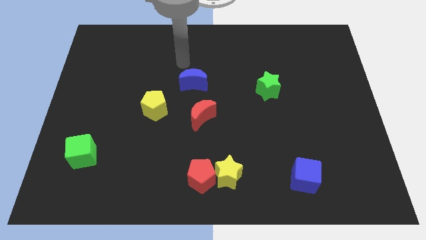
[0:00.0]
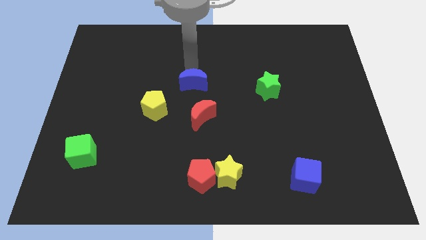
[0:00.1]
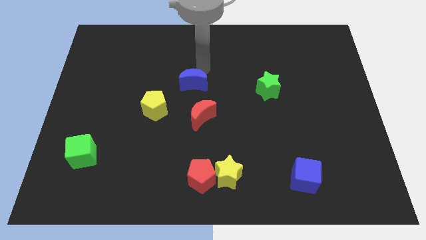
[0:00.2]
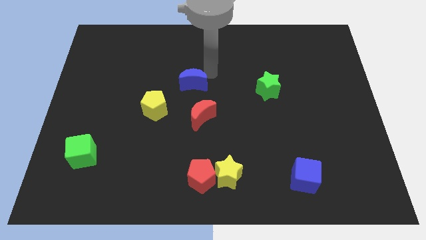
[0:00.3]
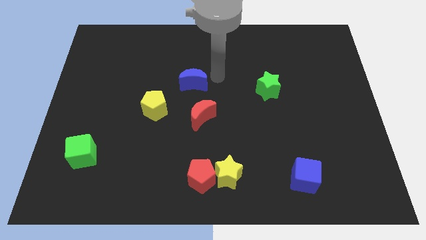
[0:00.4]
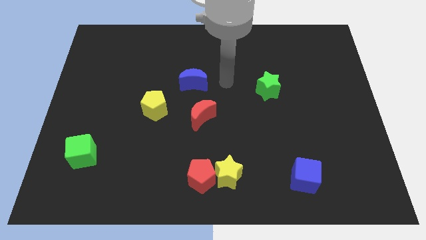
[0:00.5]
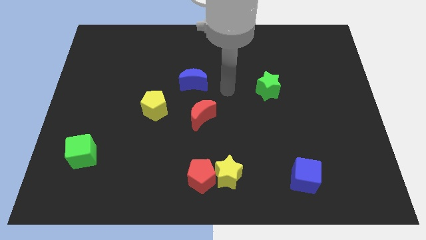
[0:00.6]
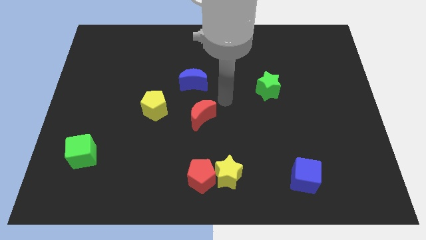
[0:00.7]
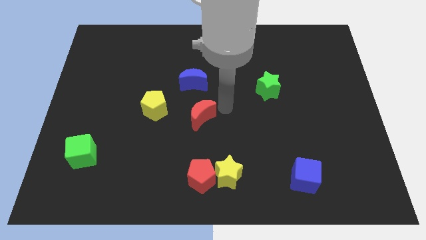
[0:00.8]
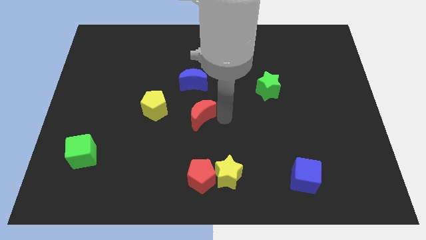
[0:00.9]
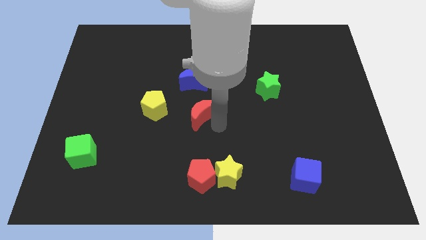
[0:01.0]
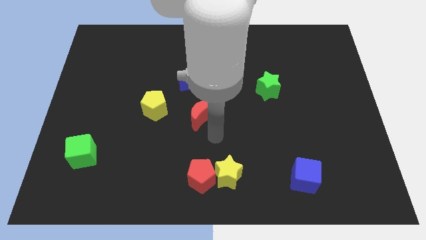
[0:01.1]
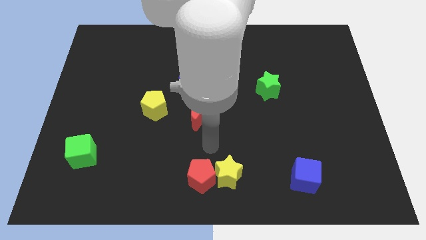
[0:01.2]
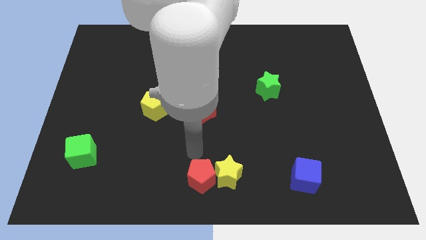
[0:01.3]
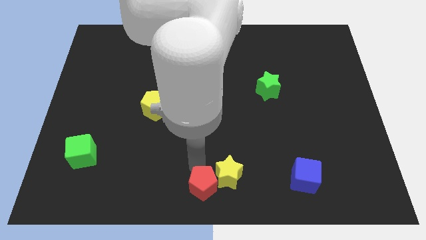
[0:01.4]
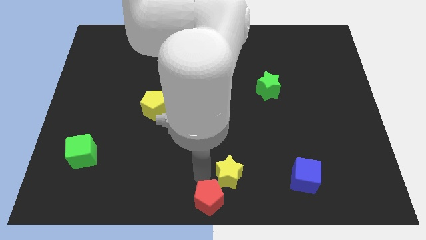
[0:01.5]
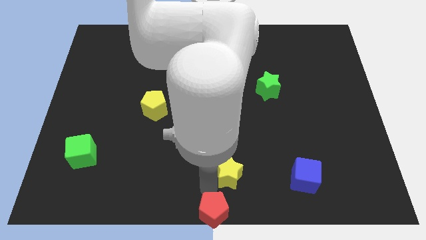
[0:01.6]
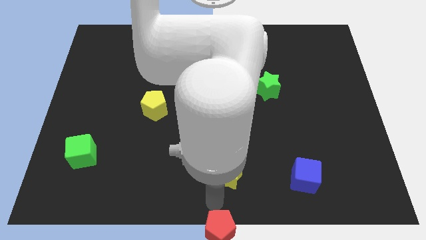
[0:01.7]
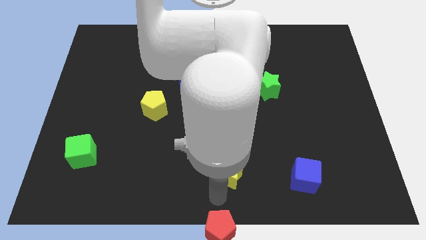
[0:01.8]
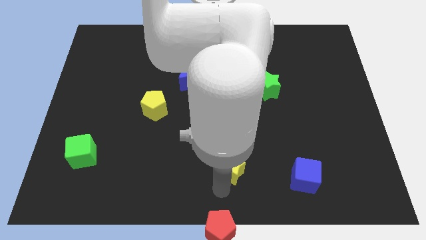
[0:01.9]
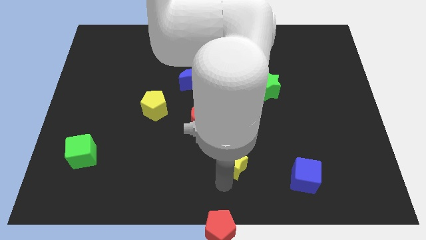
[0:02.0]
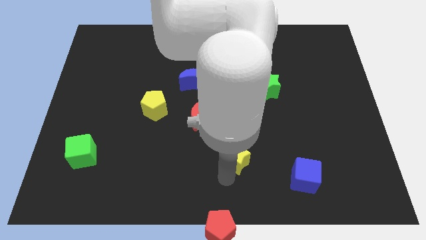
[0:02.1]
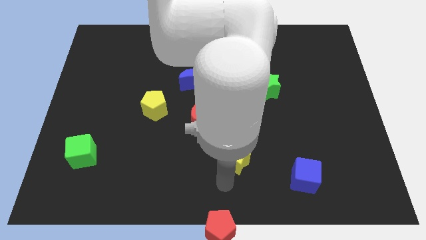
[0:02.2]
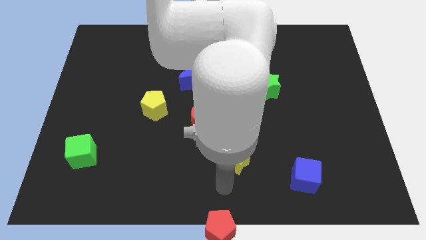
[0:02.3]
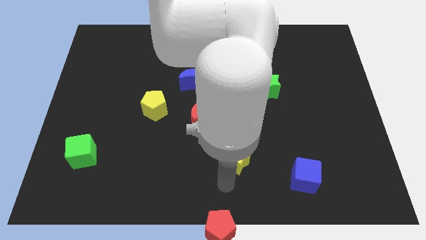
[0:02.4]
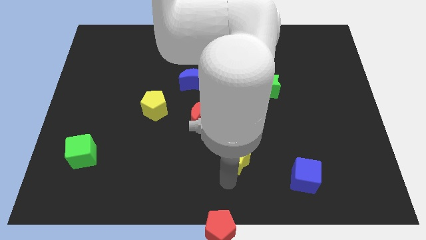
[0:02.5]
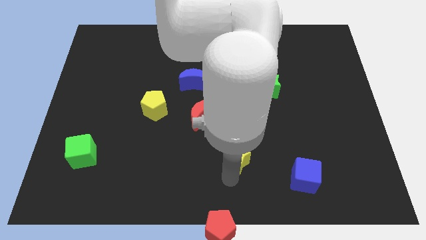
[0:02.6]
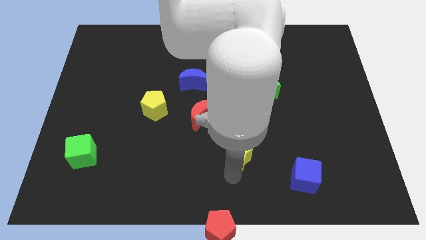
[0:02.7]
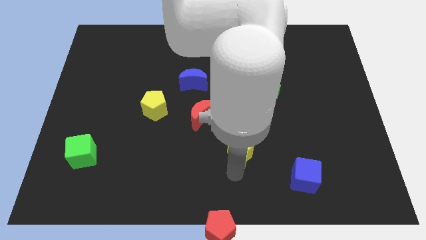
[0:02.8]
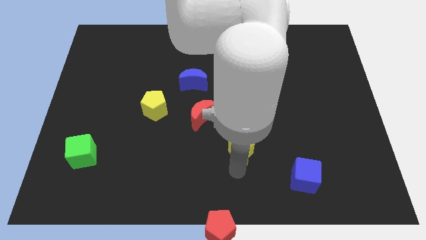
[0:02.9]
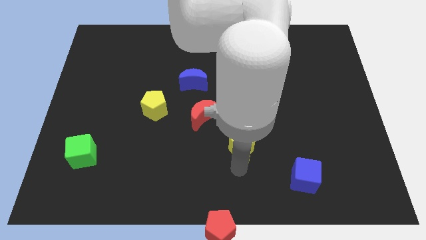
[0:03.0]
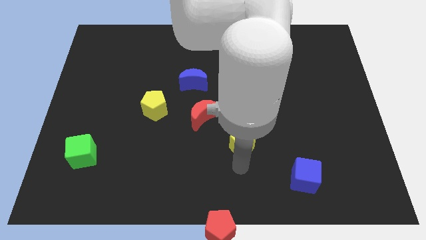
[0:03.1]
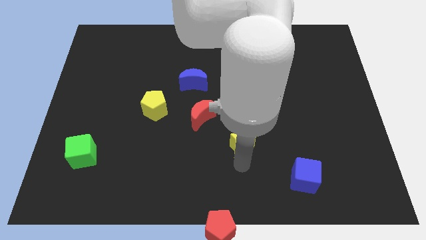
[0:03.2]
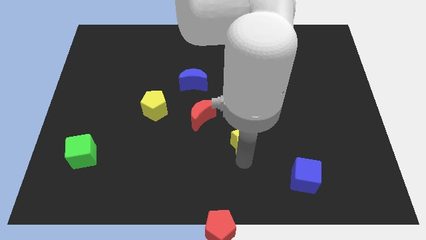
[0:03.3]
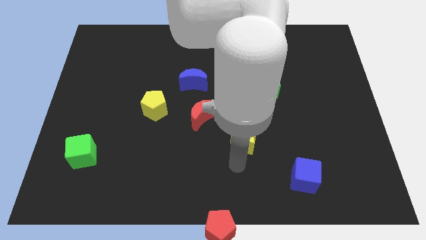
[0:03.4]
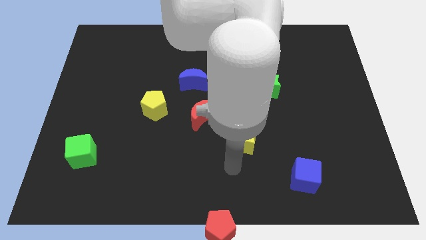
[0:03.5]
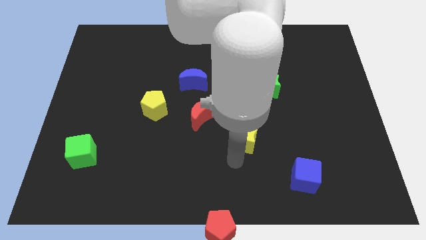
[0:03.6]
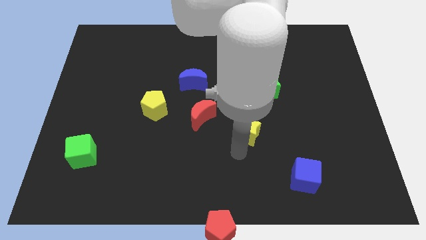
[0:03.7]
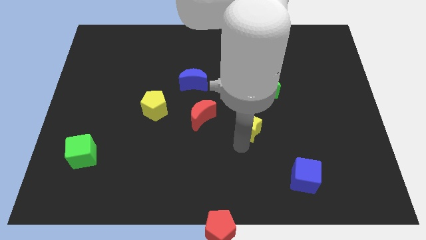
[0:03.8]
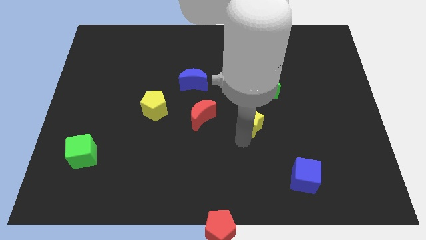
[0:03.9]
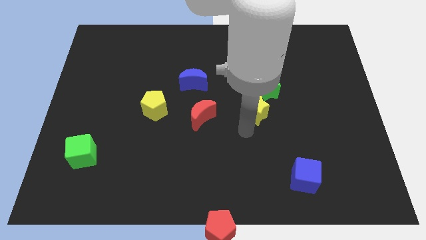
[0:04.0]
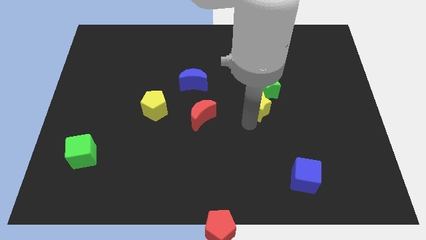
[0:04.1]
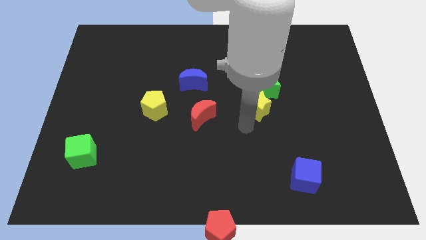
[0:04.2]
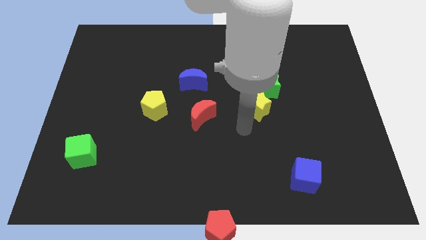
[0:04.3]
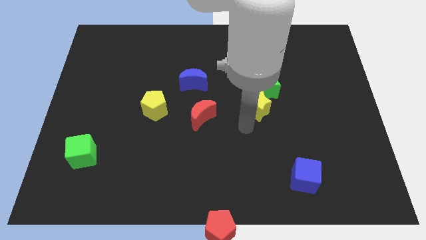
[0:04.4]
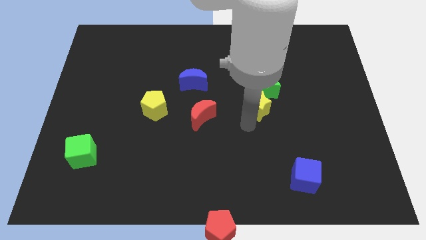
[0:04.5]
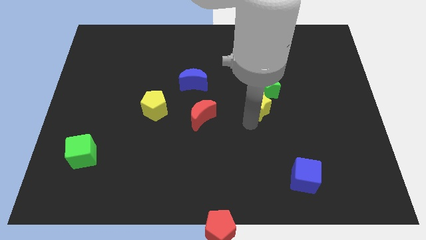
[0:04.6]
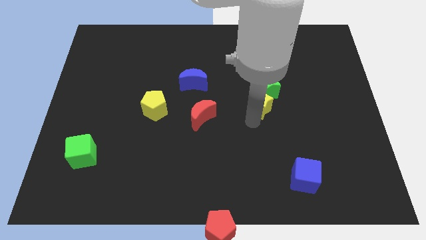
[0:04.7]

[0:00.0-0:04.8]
put the yellow star next to the green star

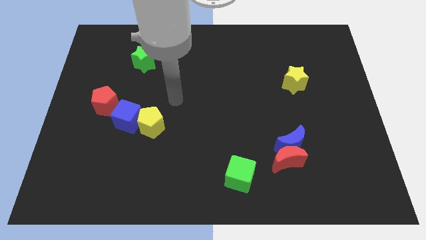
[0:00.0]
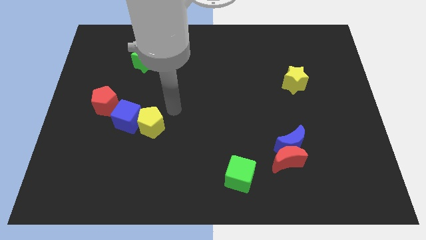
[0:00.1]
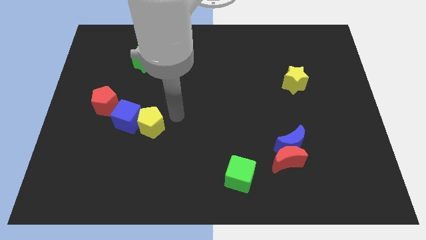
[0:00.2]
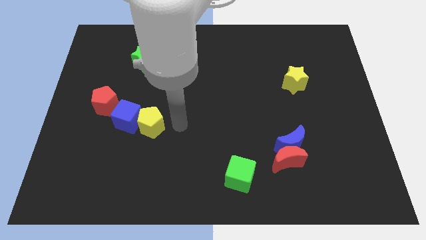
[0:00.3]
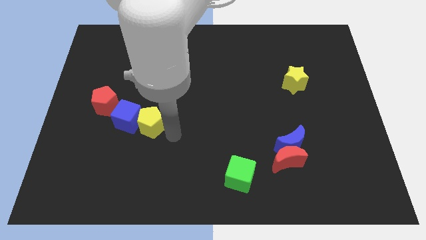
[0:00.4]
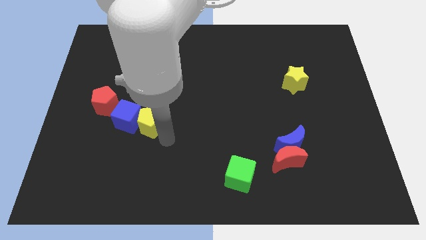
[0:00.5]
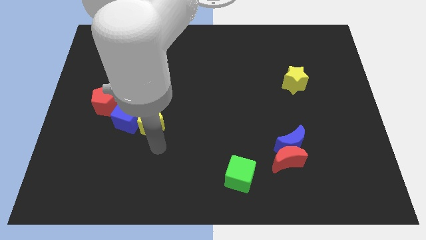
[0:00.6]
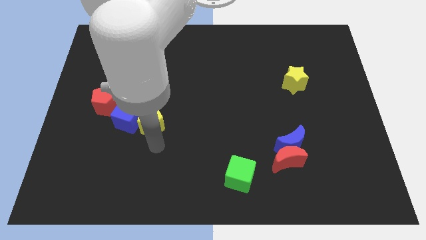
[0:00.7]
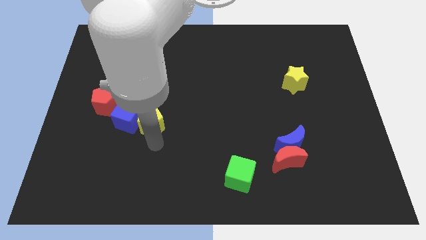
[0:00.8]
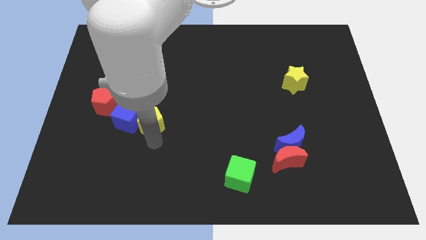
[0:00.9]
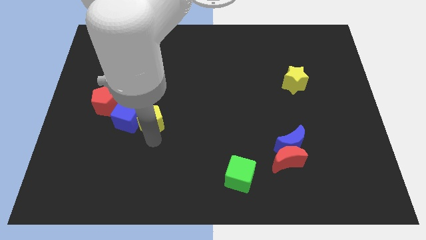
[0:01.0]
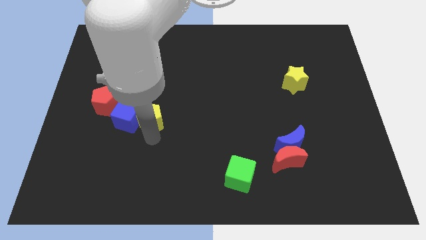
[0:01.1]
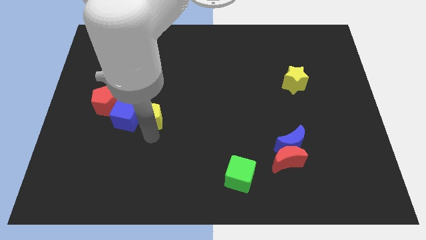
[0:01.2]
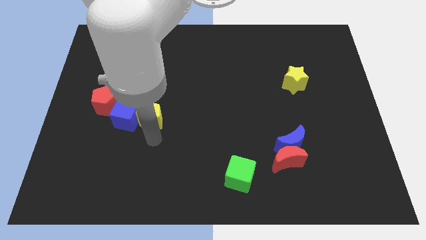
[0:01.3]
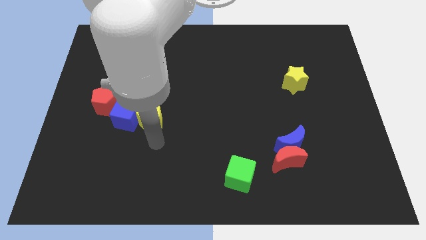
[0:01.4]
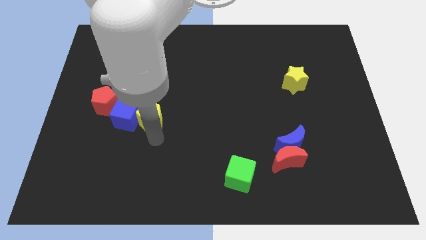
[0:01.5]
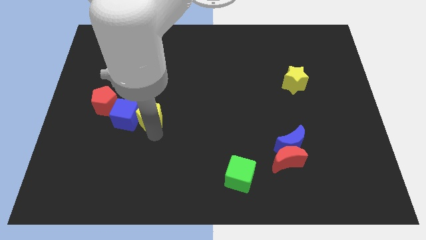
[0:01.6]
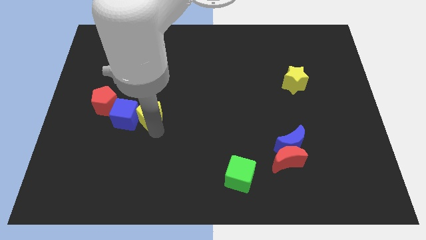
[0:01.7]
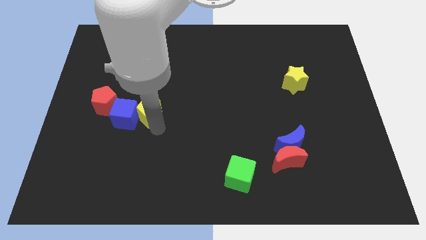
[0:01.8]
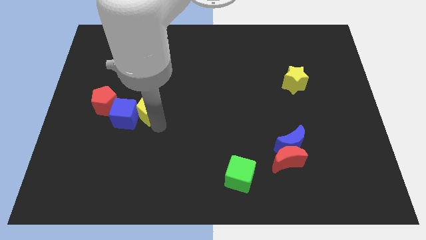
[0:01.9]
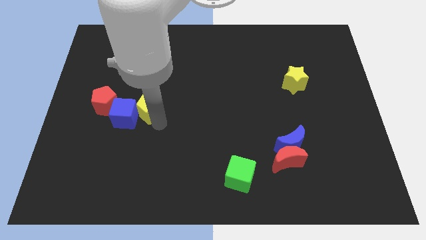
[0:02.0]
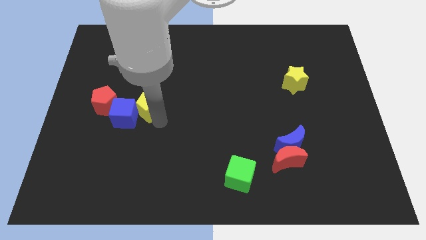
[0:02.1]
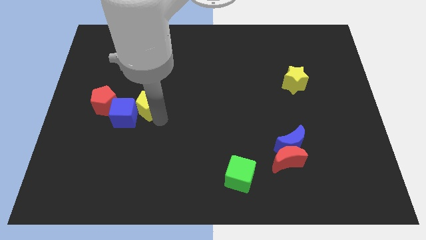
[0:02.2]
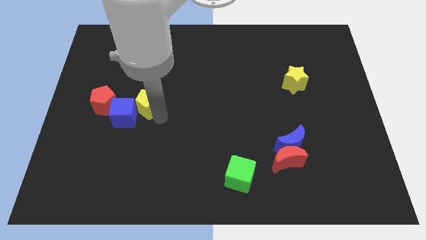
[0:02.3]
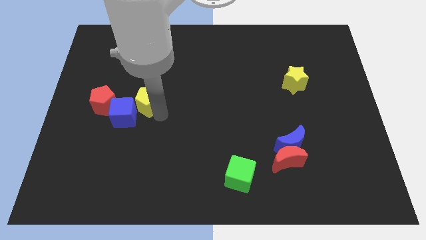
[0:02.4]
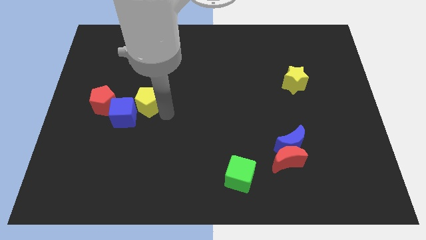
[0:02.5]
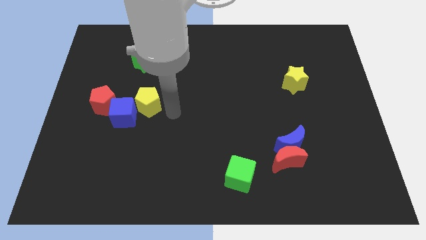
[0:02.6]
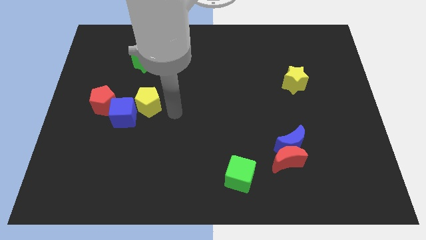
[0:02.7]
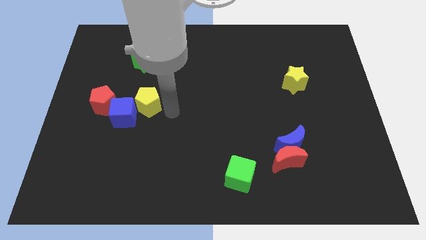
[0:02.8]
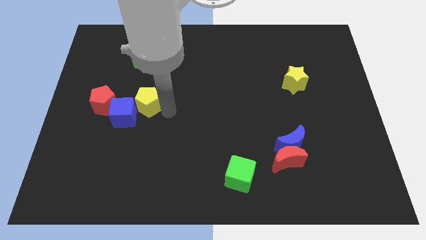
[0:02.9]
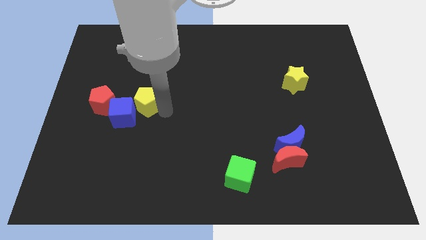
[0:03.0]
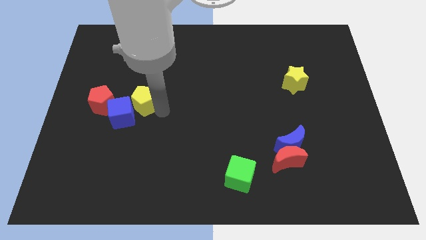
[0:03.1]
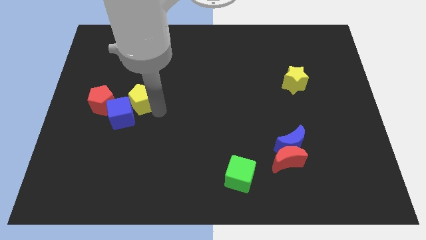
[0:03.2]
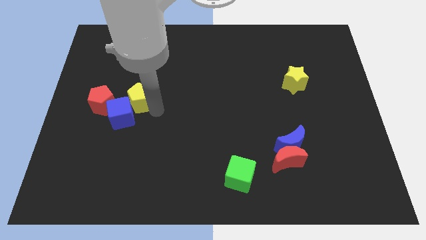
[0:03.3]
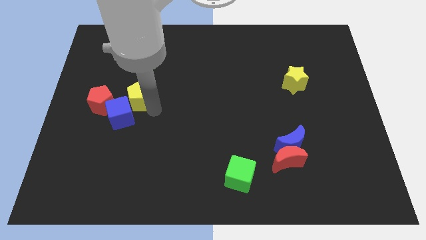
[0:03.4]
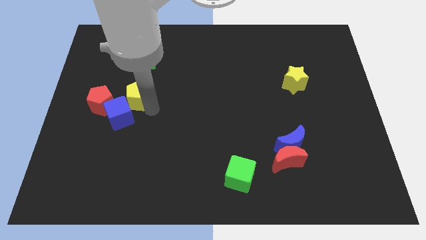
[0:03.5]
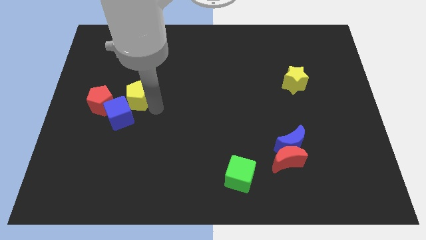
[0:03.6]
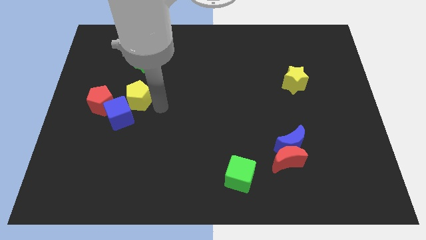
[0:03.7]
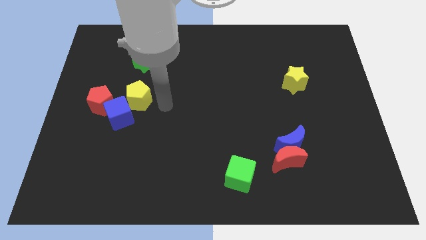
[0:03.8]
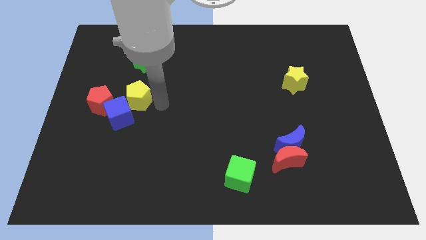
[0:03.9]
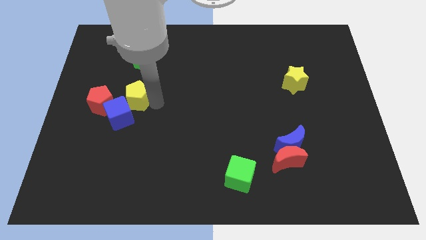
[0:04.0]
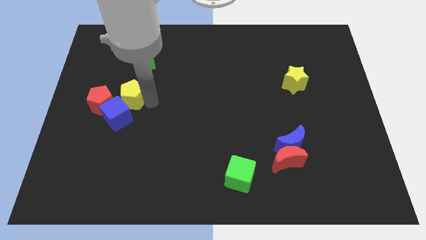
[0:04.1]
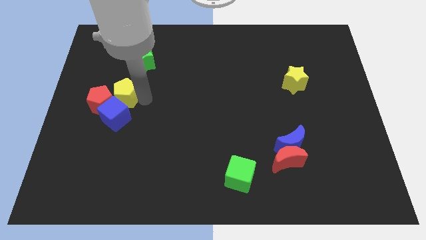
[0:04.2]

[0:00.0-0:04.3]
put the yellow pentagon close to the red pentagon
